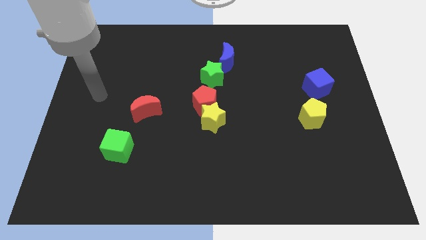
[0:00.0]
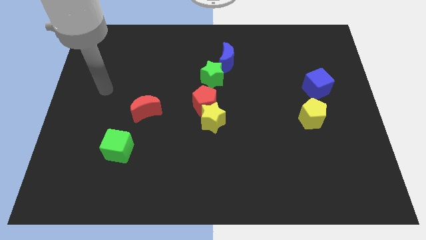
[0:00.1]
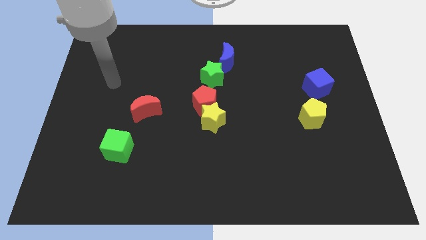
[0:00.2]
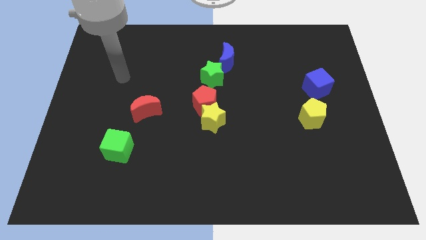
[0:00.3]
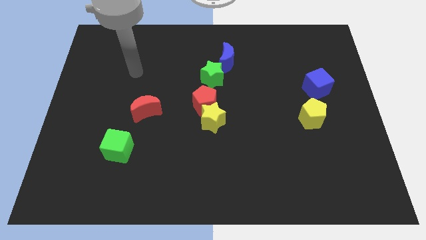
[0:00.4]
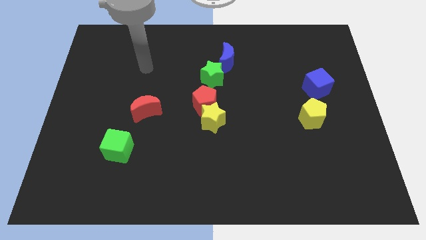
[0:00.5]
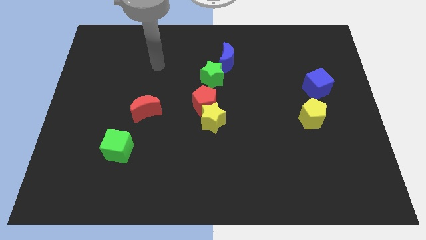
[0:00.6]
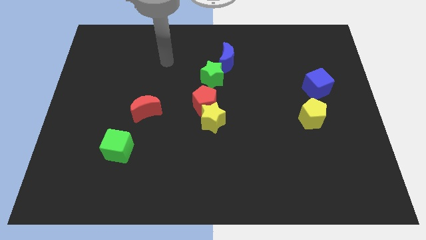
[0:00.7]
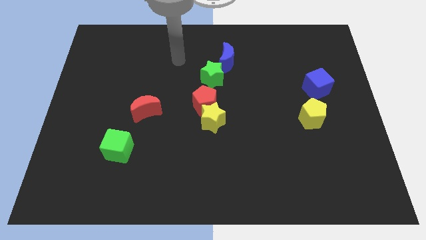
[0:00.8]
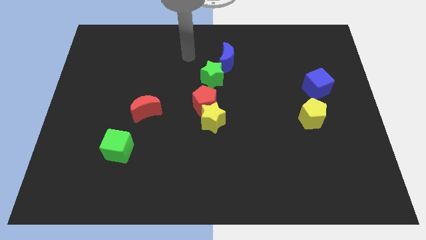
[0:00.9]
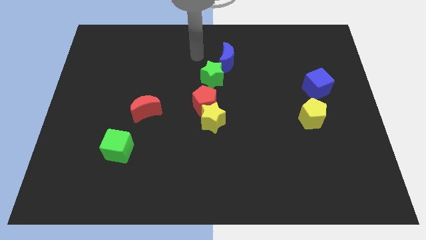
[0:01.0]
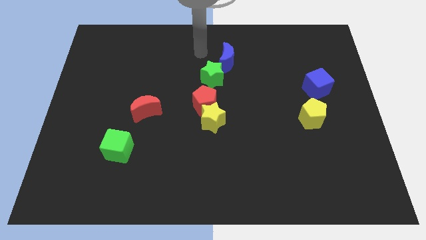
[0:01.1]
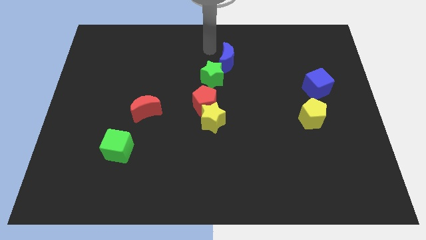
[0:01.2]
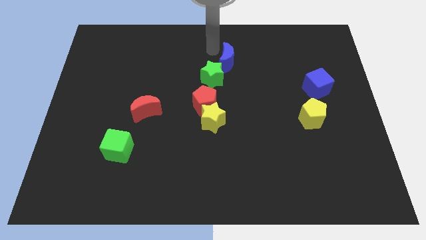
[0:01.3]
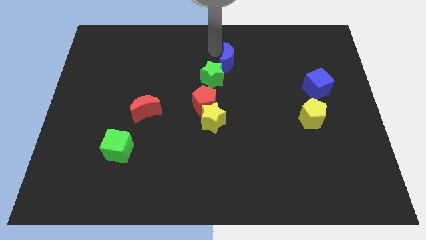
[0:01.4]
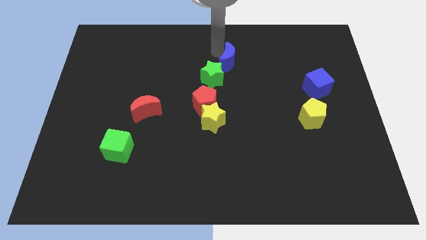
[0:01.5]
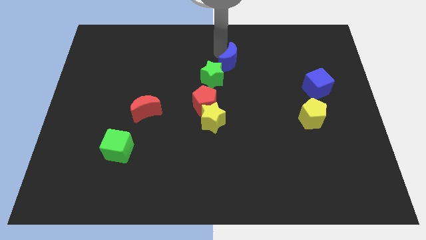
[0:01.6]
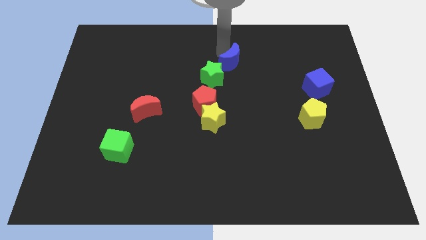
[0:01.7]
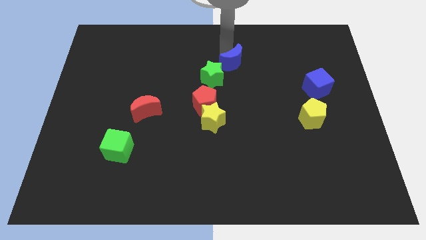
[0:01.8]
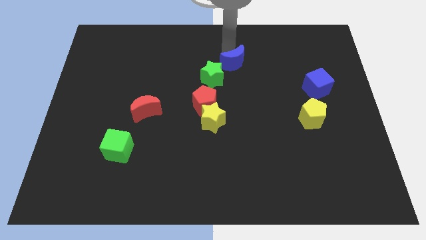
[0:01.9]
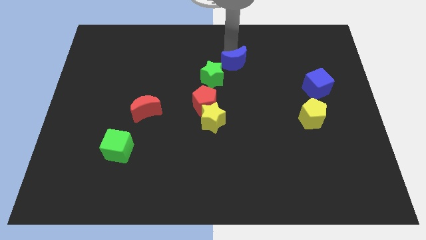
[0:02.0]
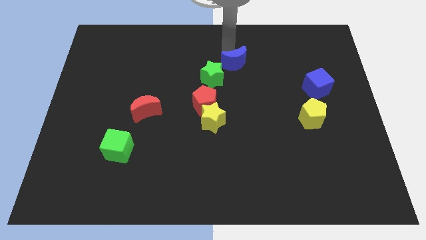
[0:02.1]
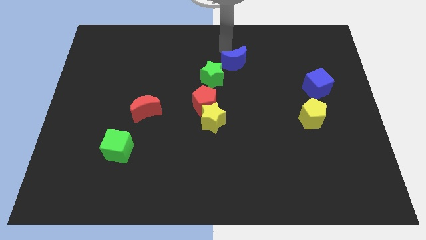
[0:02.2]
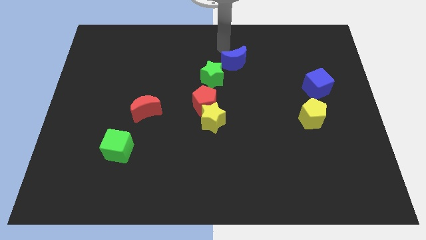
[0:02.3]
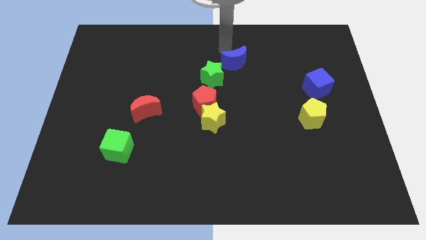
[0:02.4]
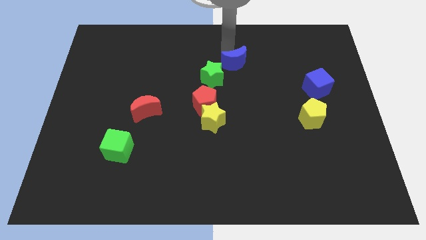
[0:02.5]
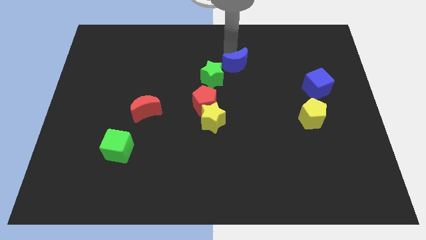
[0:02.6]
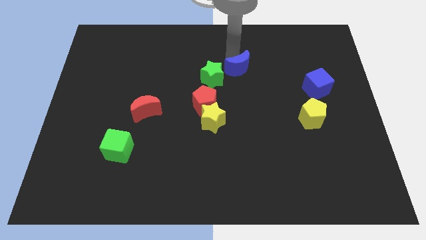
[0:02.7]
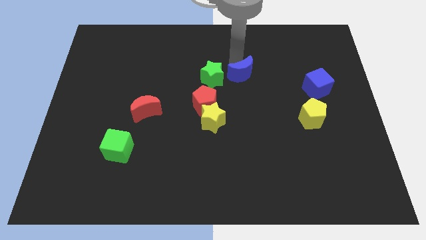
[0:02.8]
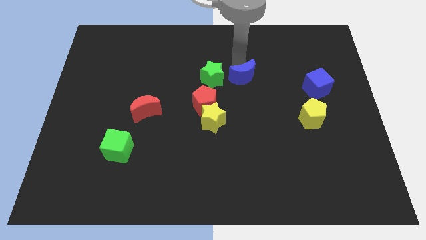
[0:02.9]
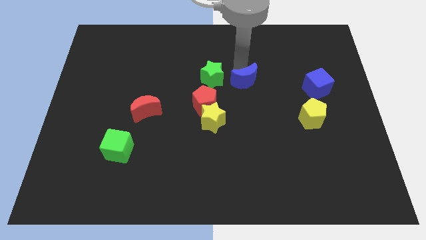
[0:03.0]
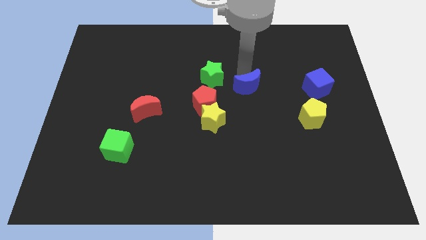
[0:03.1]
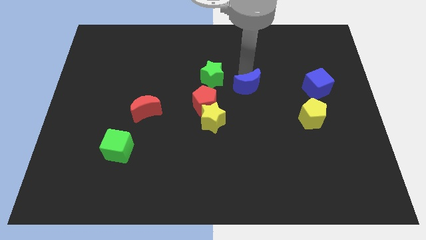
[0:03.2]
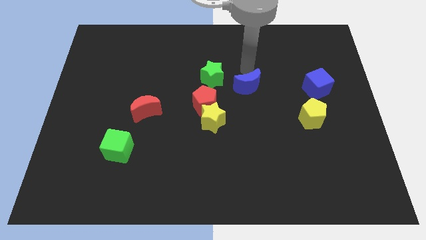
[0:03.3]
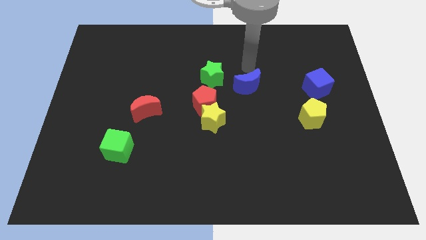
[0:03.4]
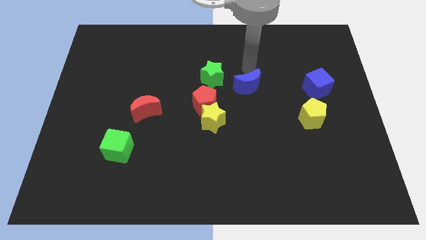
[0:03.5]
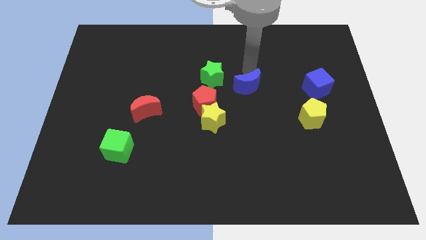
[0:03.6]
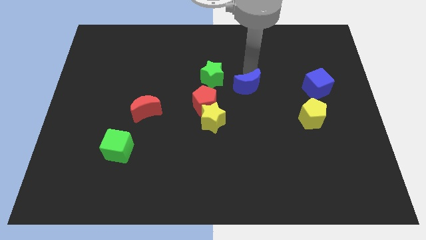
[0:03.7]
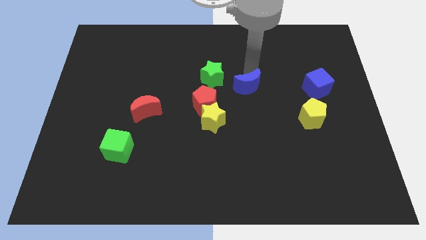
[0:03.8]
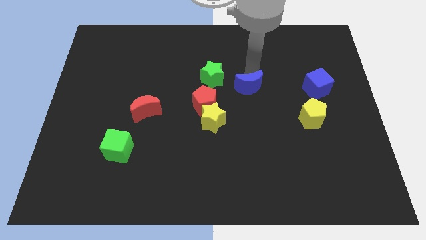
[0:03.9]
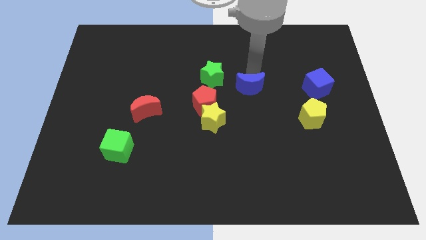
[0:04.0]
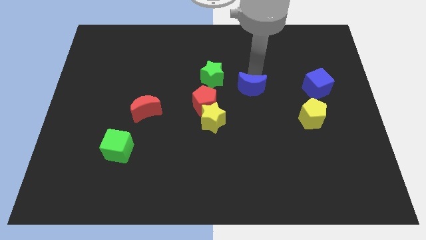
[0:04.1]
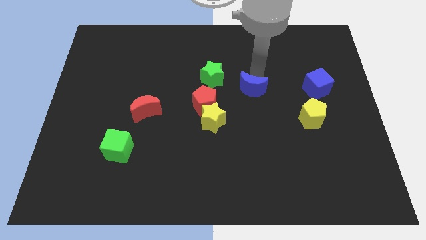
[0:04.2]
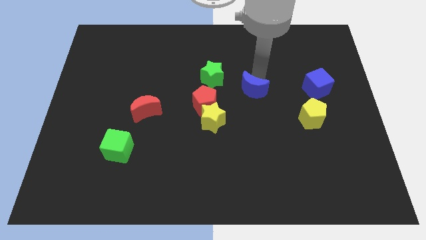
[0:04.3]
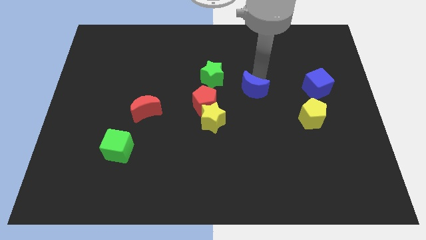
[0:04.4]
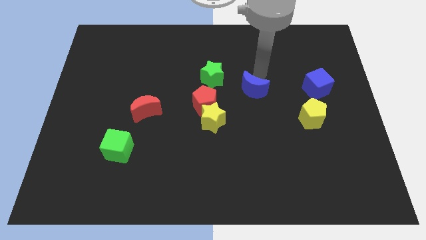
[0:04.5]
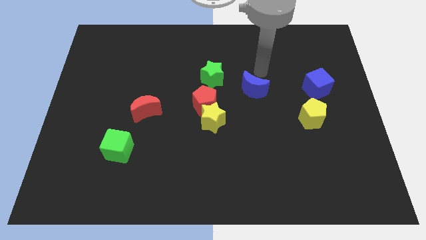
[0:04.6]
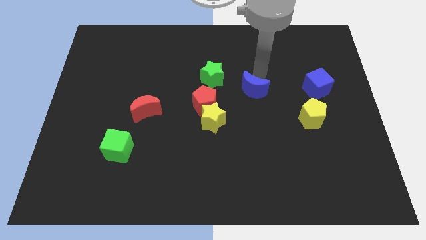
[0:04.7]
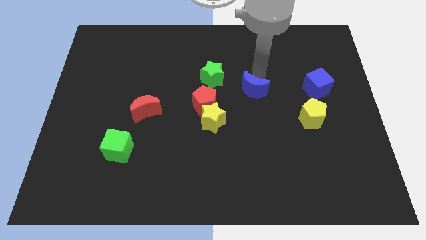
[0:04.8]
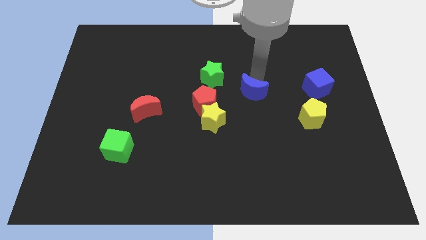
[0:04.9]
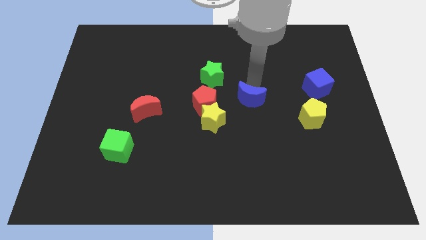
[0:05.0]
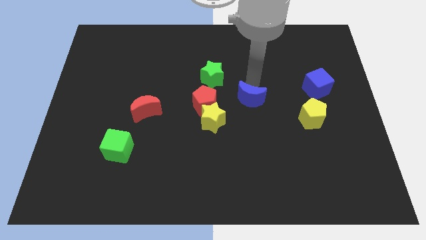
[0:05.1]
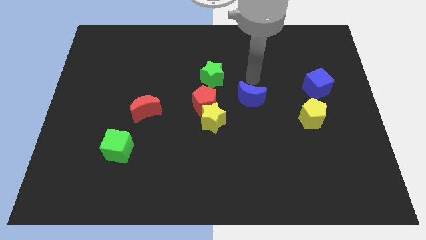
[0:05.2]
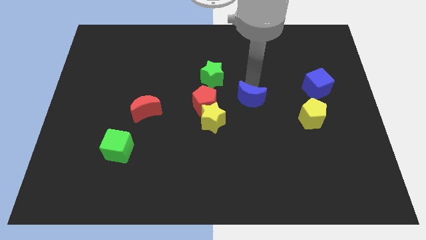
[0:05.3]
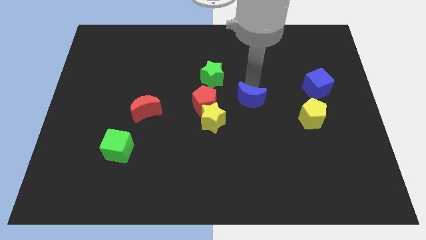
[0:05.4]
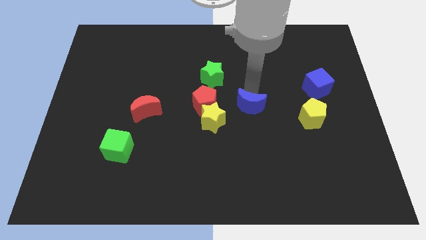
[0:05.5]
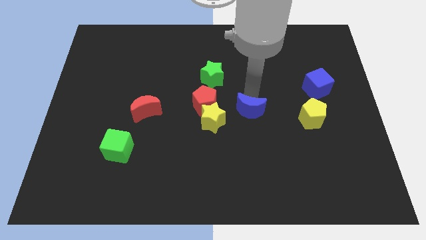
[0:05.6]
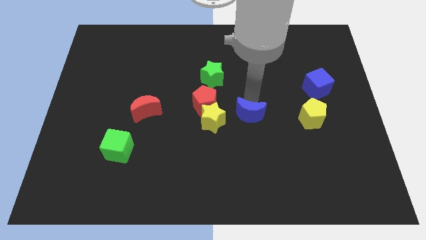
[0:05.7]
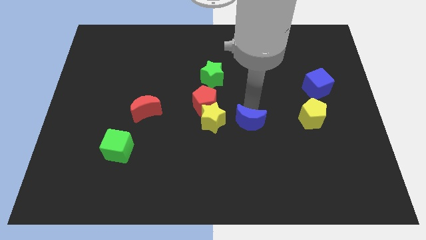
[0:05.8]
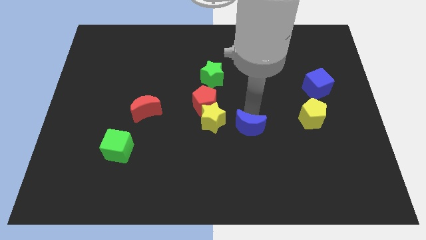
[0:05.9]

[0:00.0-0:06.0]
move the blue moon downwards

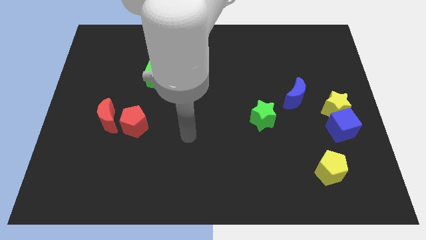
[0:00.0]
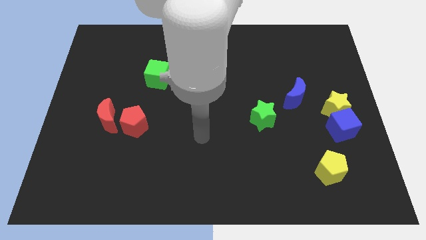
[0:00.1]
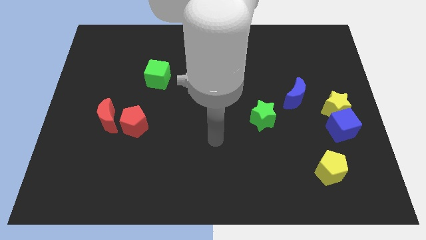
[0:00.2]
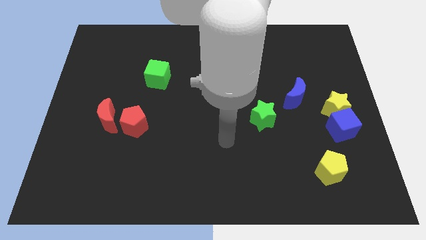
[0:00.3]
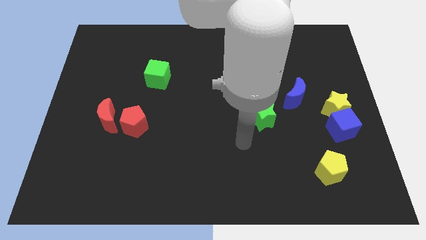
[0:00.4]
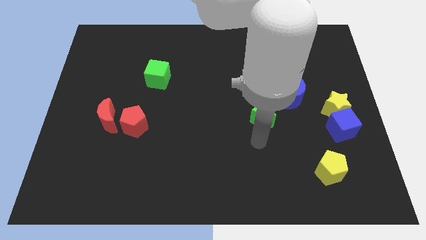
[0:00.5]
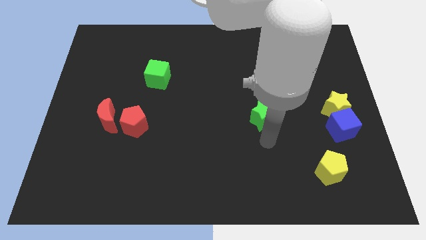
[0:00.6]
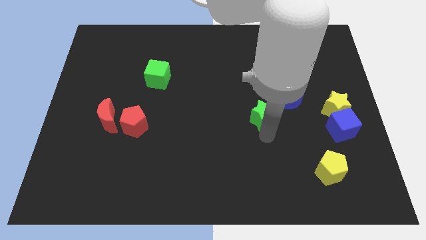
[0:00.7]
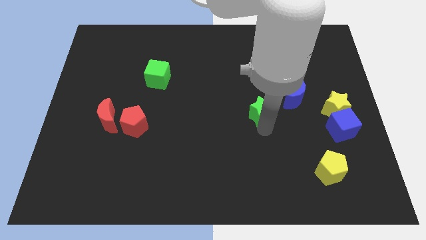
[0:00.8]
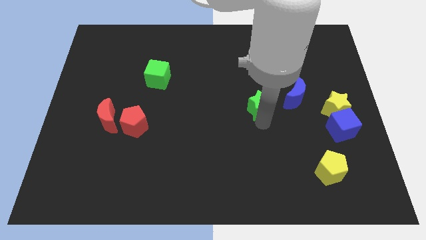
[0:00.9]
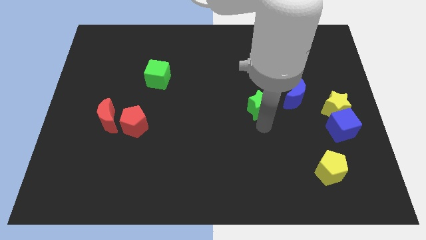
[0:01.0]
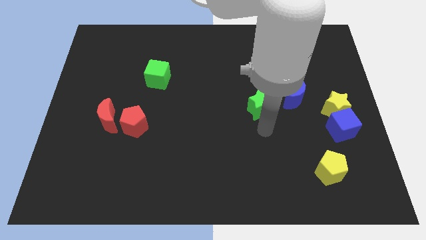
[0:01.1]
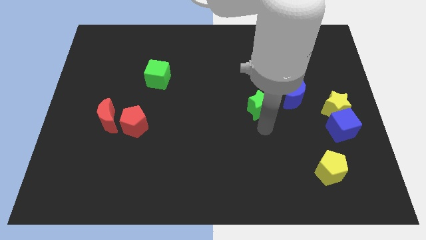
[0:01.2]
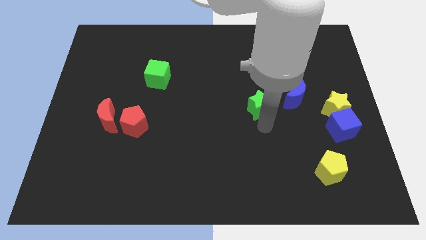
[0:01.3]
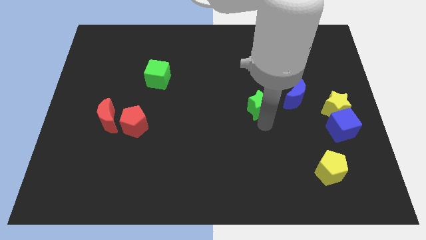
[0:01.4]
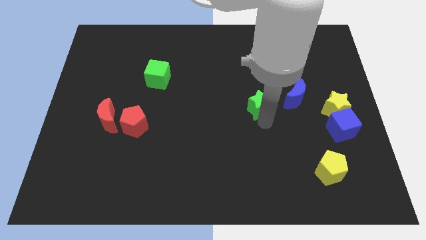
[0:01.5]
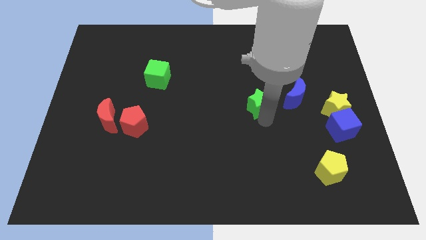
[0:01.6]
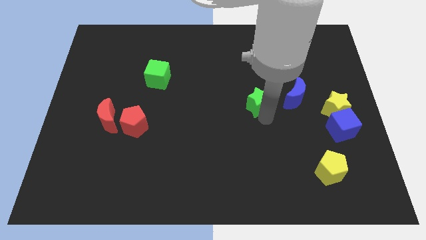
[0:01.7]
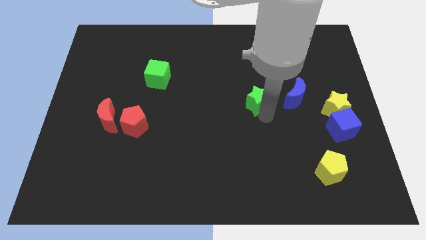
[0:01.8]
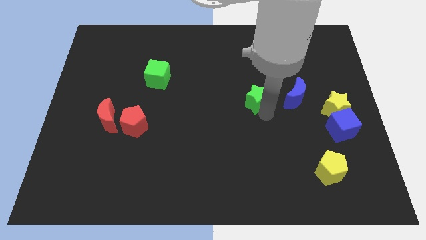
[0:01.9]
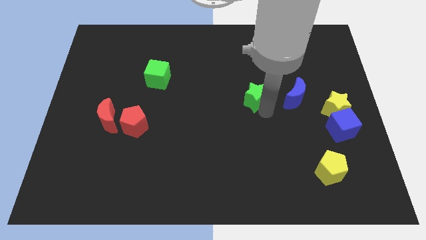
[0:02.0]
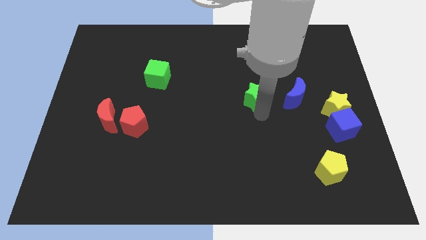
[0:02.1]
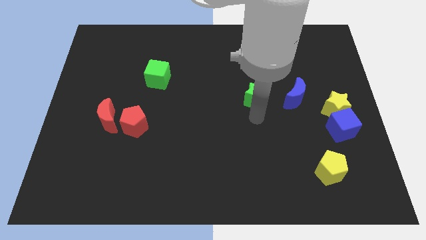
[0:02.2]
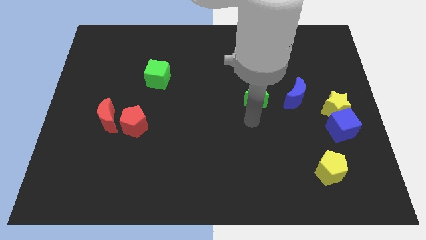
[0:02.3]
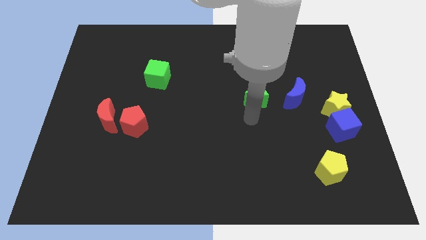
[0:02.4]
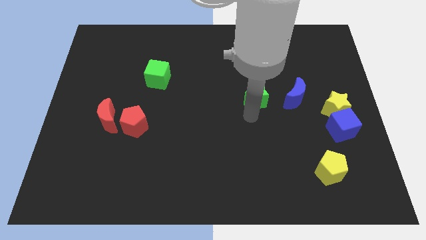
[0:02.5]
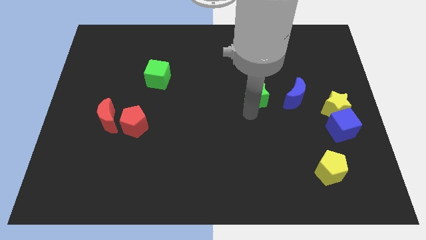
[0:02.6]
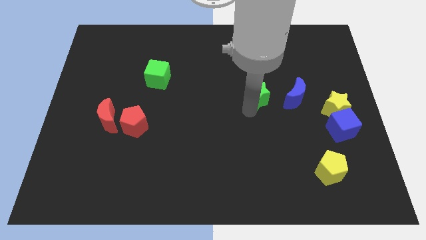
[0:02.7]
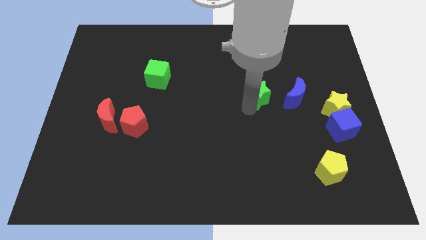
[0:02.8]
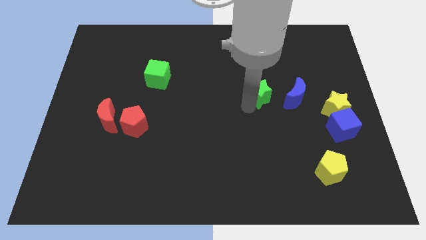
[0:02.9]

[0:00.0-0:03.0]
slide the green star slightly up
